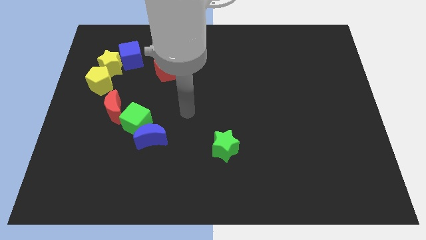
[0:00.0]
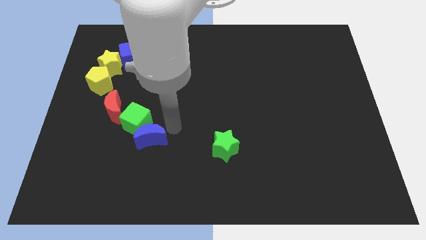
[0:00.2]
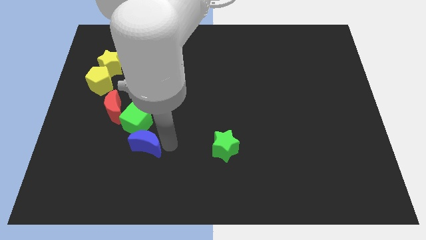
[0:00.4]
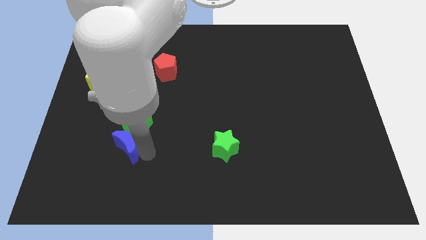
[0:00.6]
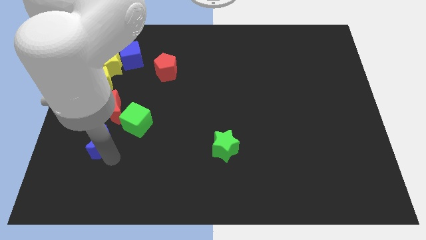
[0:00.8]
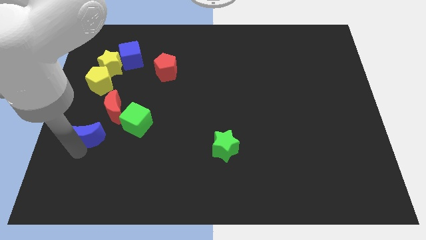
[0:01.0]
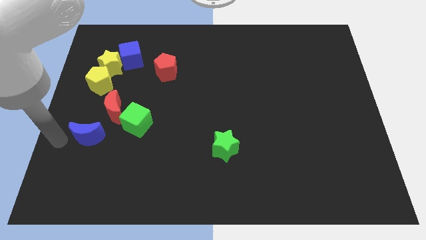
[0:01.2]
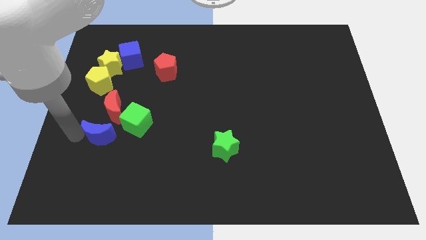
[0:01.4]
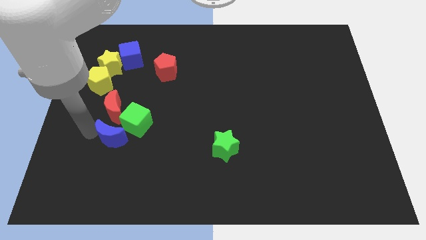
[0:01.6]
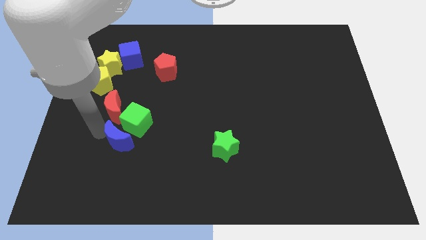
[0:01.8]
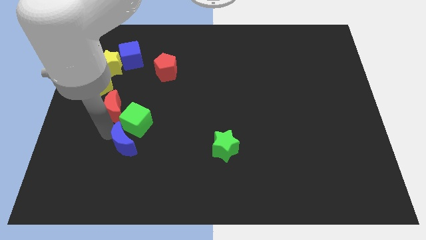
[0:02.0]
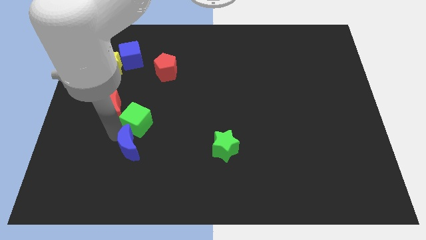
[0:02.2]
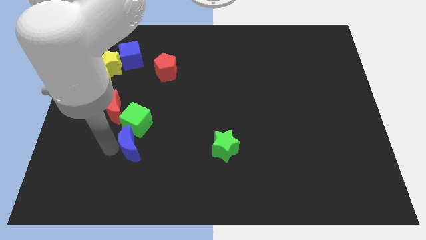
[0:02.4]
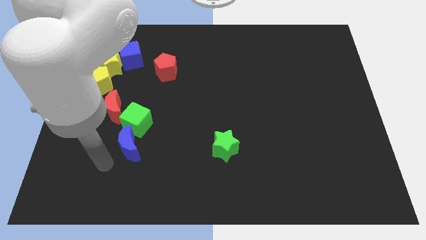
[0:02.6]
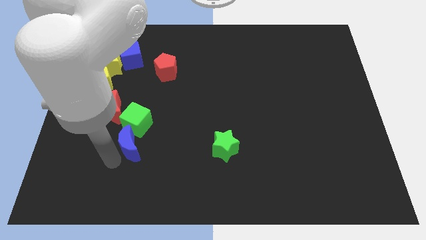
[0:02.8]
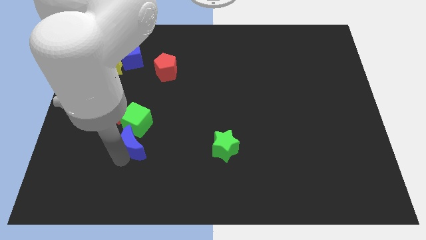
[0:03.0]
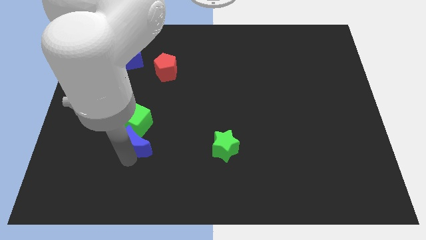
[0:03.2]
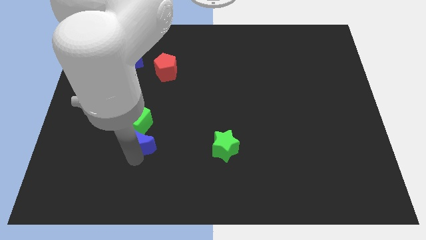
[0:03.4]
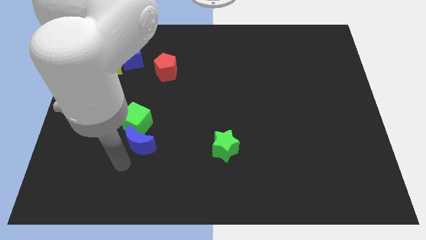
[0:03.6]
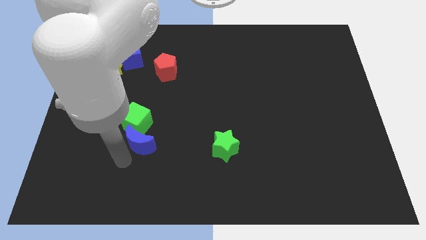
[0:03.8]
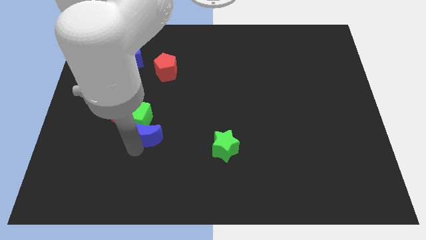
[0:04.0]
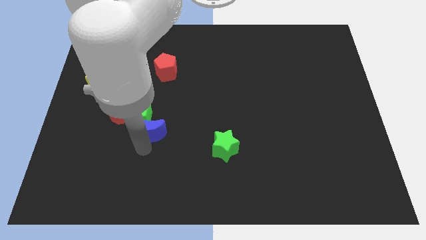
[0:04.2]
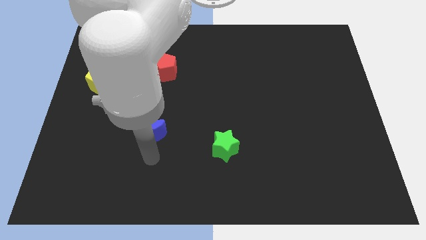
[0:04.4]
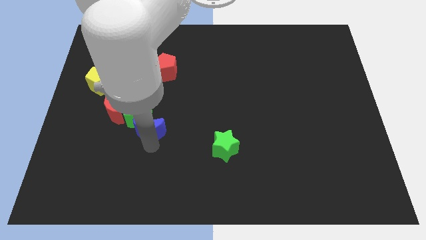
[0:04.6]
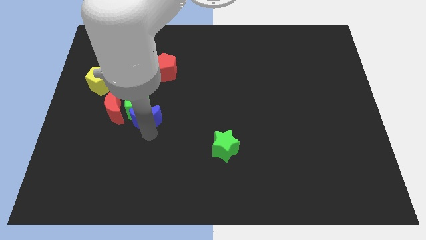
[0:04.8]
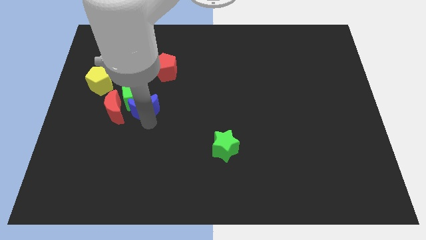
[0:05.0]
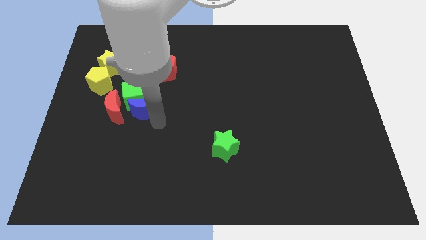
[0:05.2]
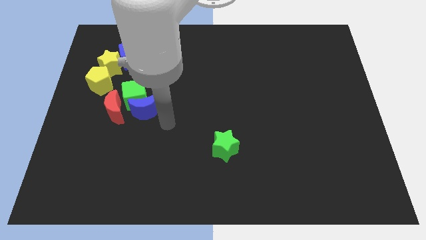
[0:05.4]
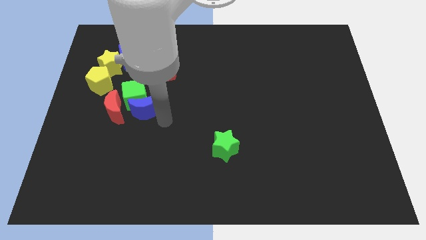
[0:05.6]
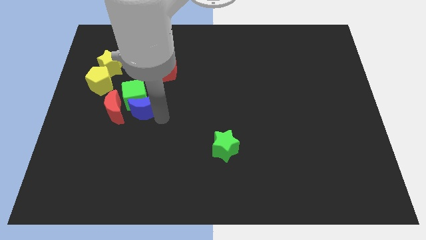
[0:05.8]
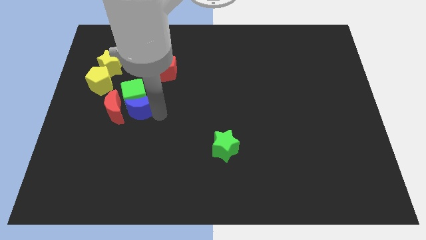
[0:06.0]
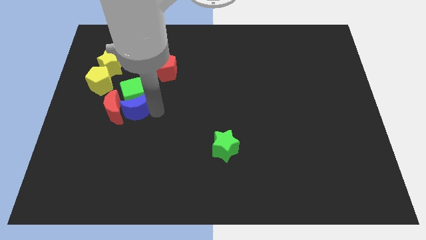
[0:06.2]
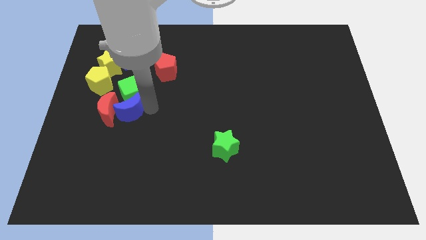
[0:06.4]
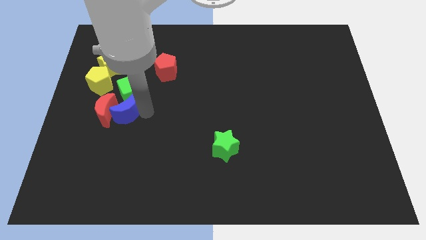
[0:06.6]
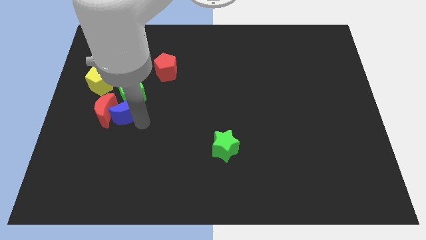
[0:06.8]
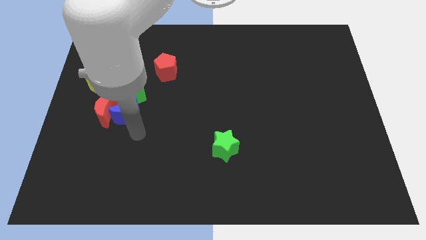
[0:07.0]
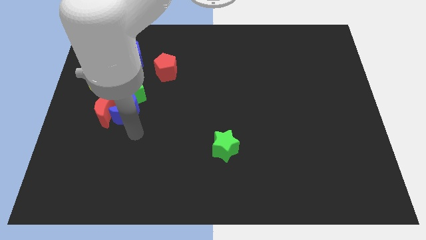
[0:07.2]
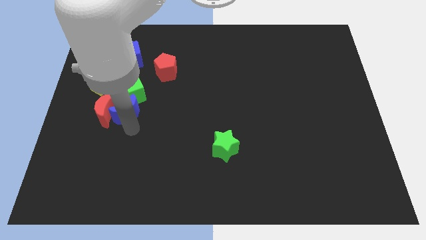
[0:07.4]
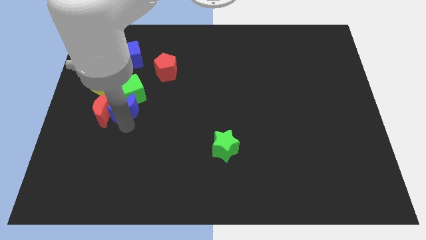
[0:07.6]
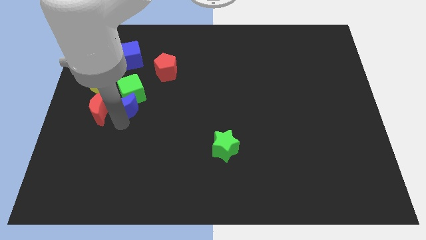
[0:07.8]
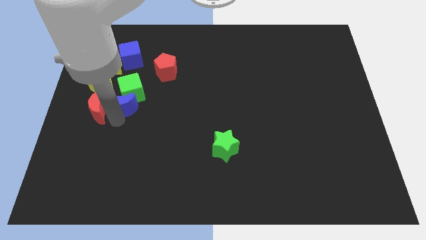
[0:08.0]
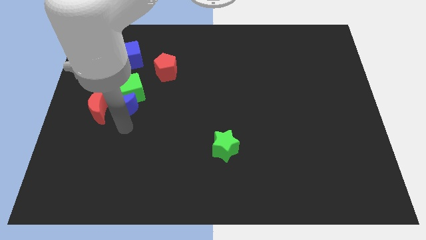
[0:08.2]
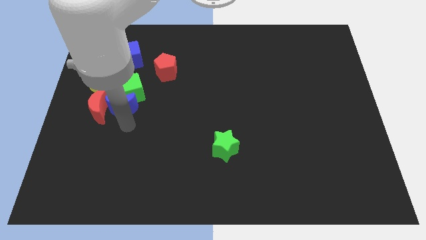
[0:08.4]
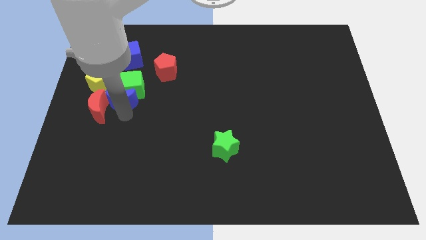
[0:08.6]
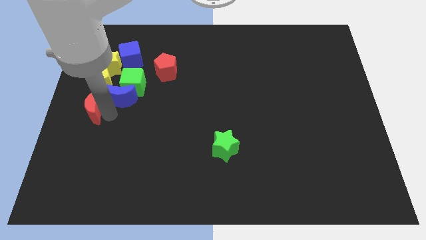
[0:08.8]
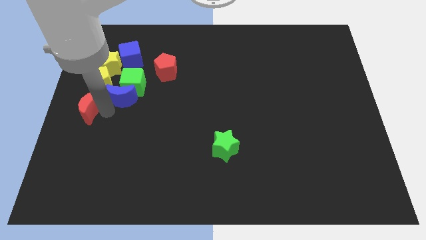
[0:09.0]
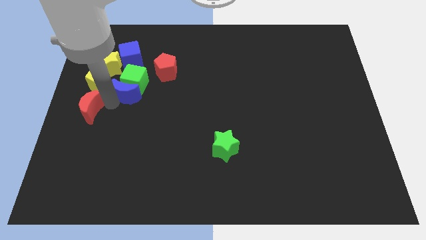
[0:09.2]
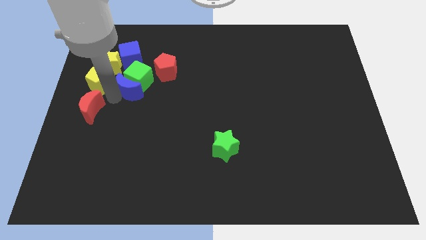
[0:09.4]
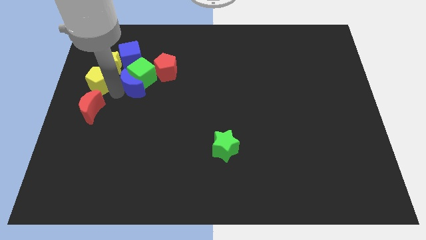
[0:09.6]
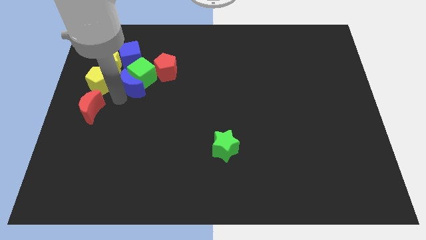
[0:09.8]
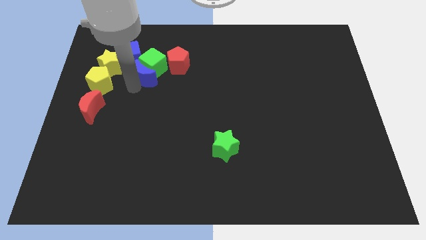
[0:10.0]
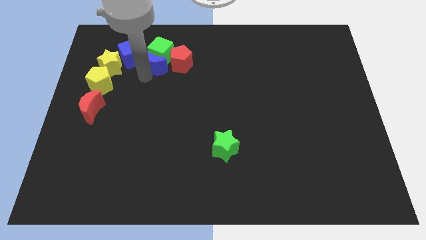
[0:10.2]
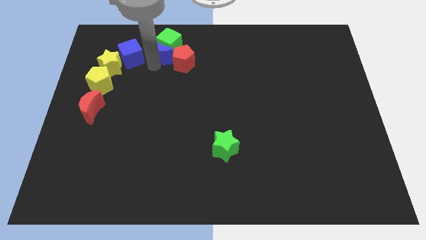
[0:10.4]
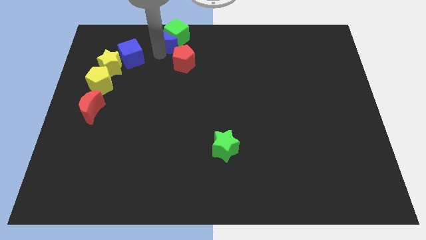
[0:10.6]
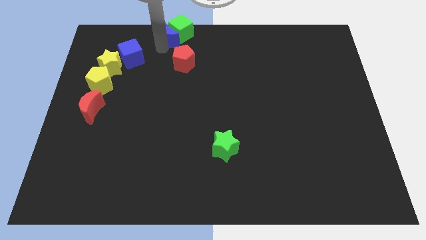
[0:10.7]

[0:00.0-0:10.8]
move the blue moon to the top side

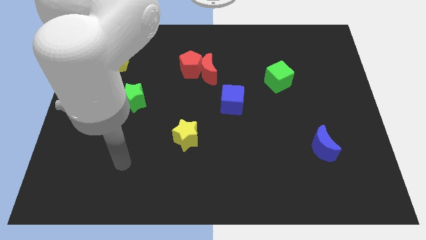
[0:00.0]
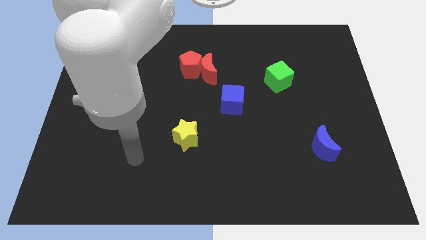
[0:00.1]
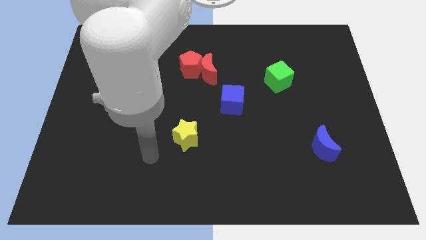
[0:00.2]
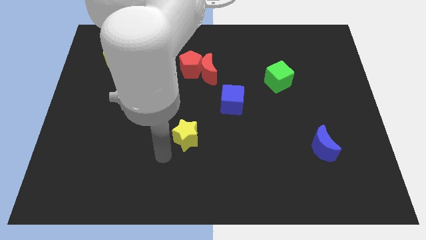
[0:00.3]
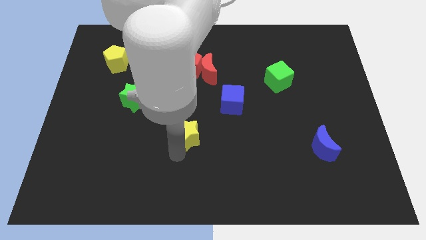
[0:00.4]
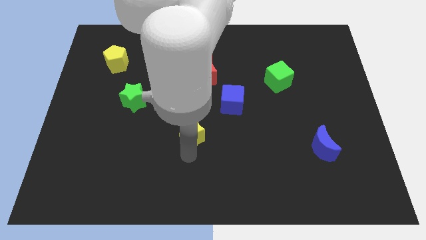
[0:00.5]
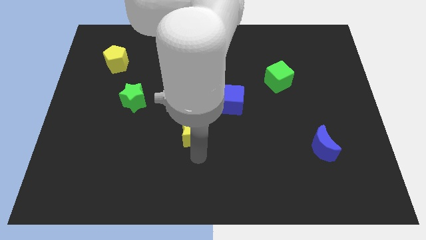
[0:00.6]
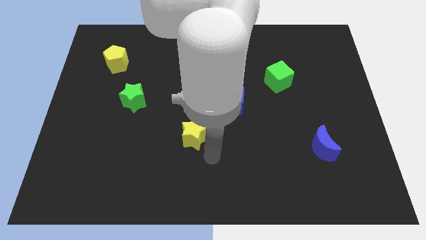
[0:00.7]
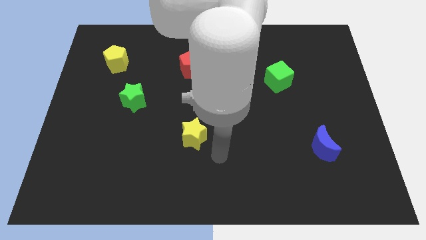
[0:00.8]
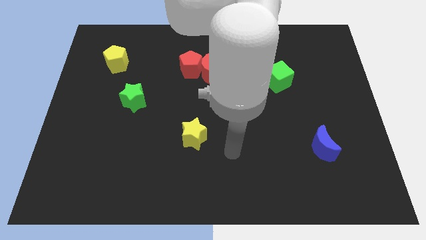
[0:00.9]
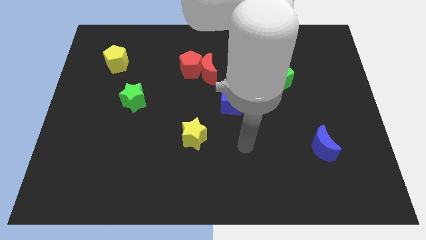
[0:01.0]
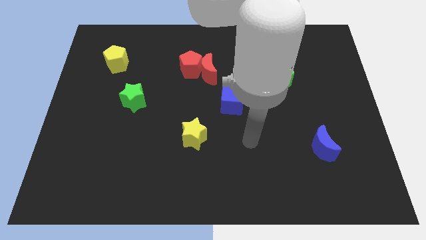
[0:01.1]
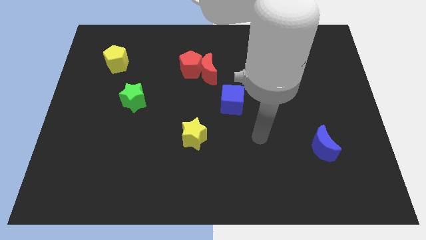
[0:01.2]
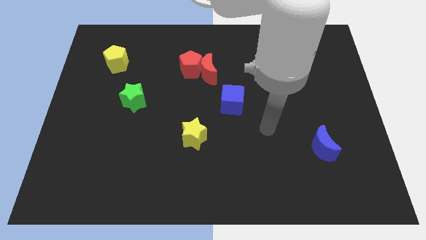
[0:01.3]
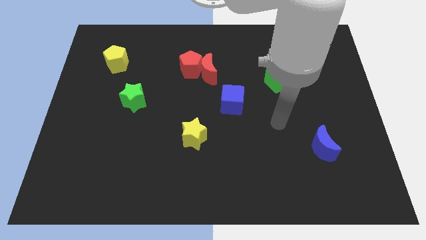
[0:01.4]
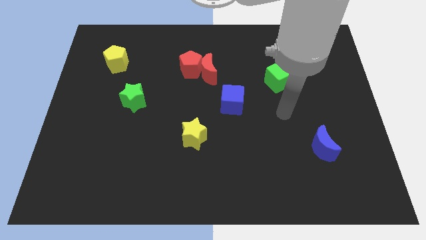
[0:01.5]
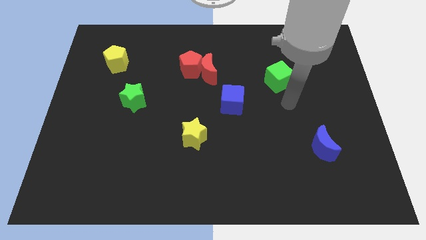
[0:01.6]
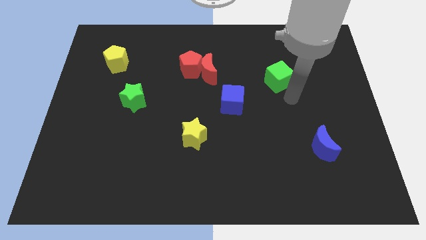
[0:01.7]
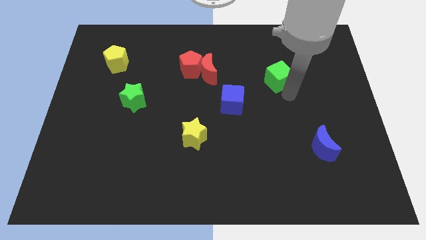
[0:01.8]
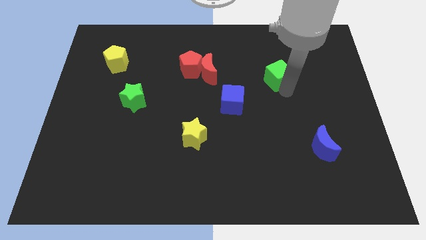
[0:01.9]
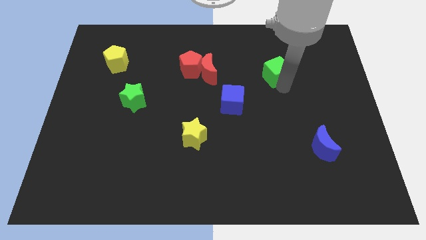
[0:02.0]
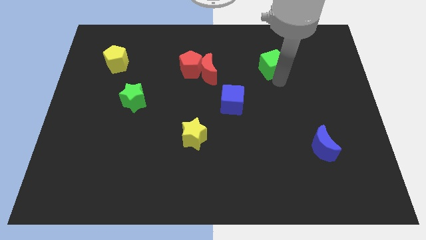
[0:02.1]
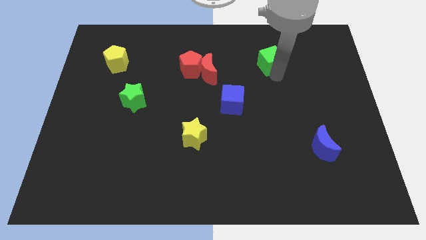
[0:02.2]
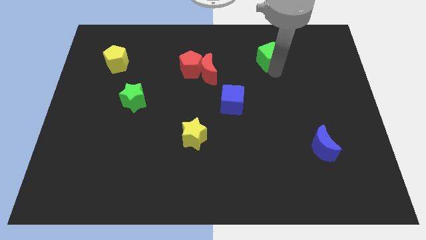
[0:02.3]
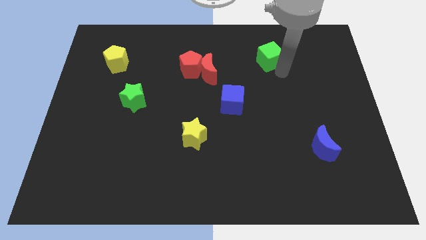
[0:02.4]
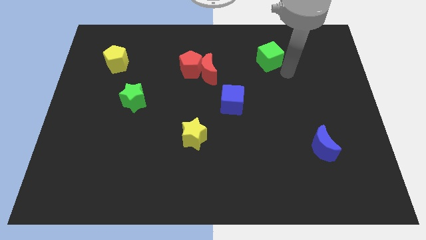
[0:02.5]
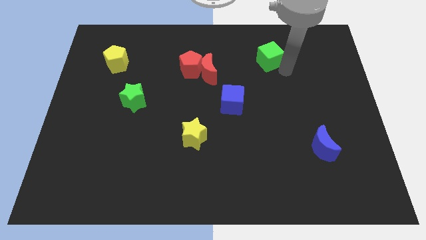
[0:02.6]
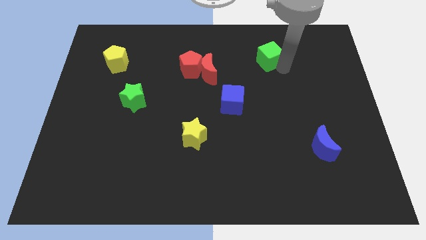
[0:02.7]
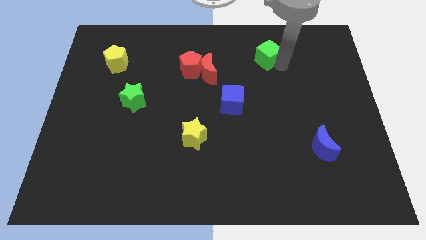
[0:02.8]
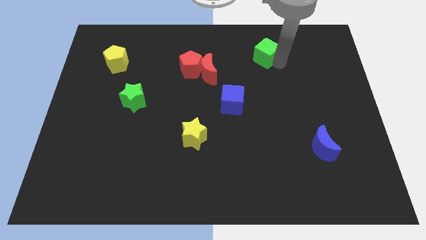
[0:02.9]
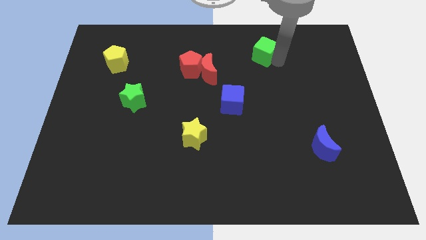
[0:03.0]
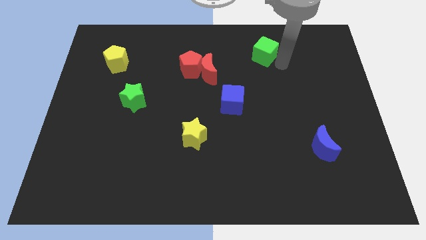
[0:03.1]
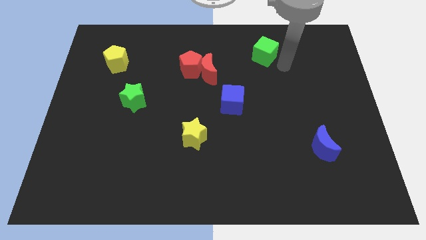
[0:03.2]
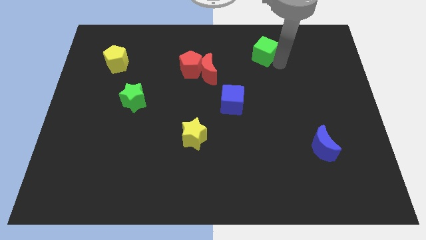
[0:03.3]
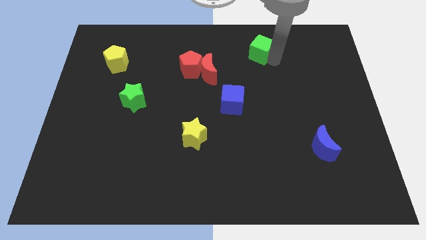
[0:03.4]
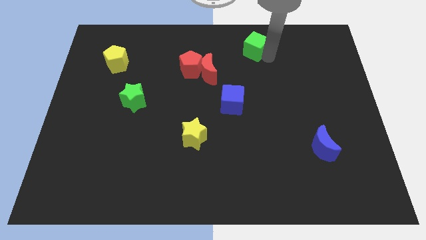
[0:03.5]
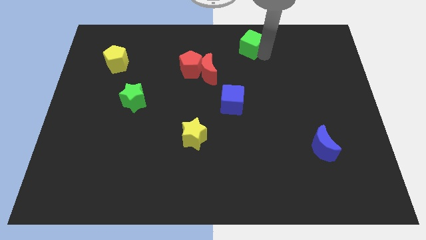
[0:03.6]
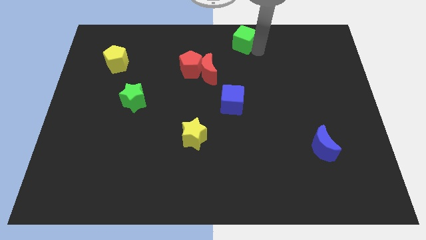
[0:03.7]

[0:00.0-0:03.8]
push the green cube to the top side
